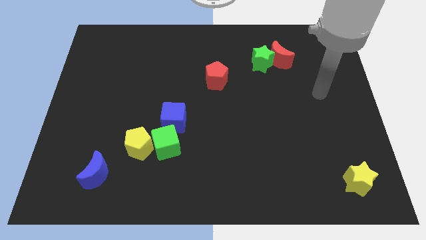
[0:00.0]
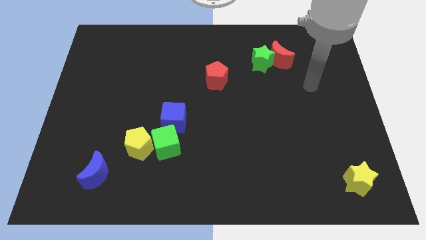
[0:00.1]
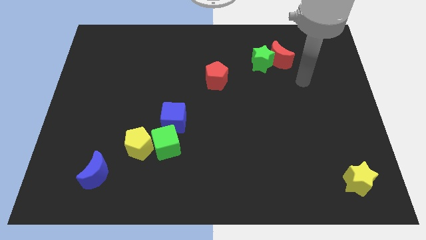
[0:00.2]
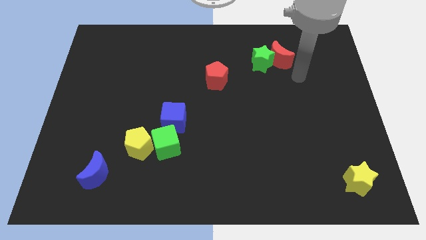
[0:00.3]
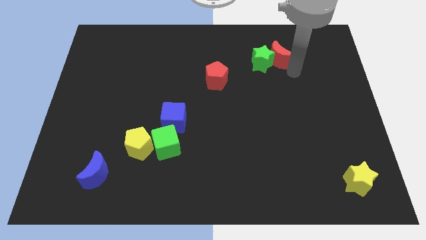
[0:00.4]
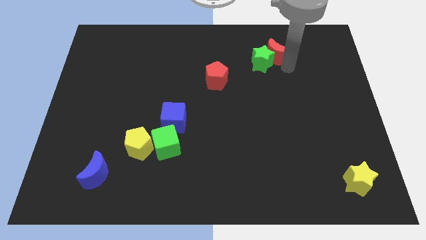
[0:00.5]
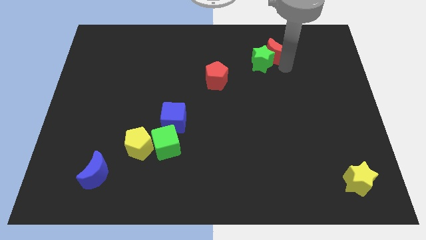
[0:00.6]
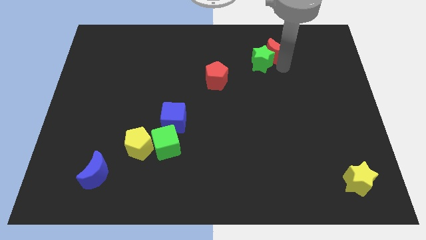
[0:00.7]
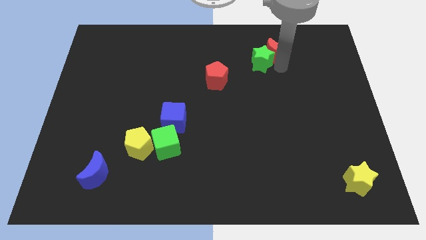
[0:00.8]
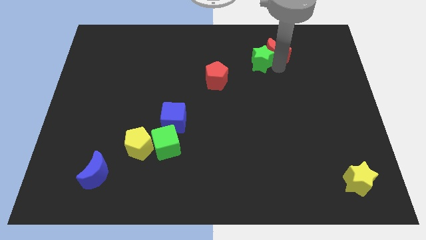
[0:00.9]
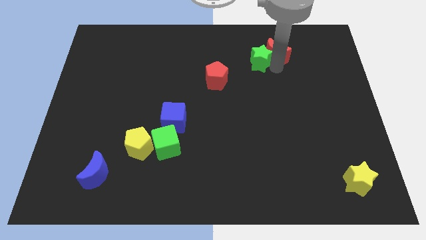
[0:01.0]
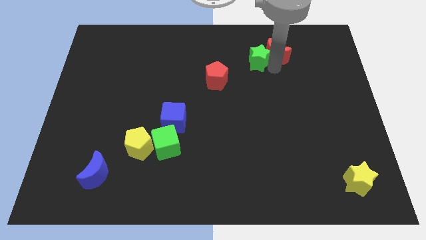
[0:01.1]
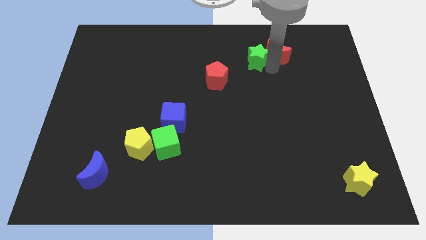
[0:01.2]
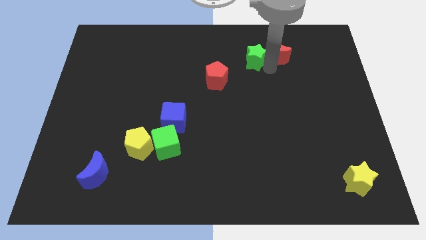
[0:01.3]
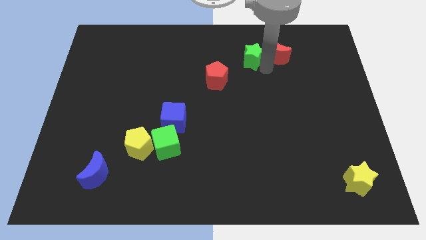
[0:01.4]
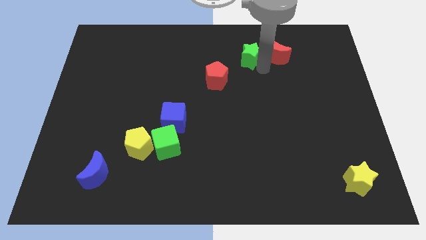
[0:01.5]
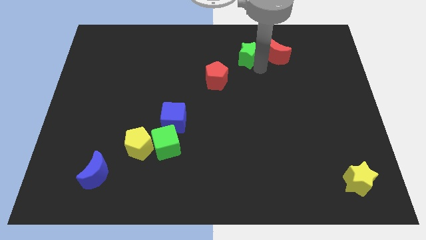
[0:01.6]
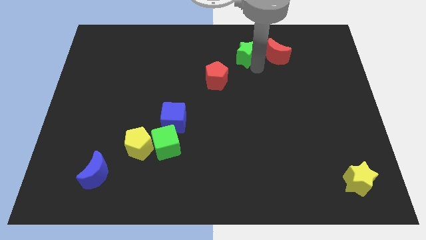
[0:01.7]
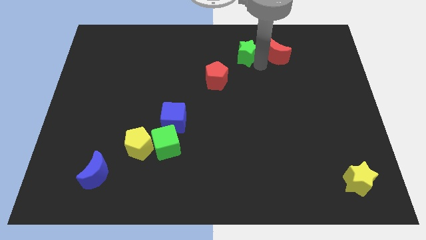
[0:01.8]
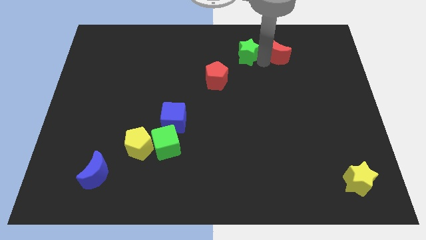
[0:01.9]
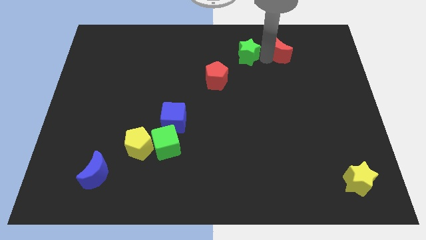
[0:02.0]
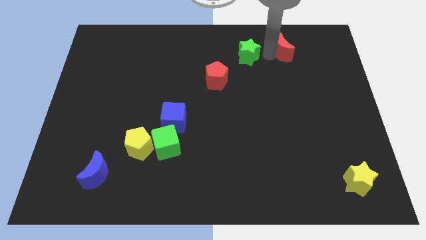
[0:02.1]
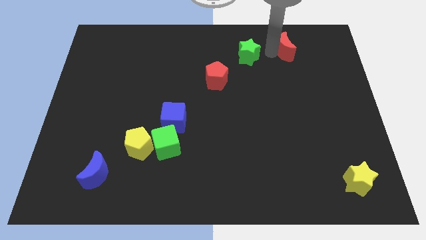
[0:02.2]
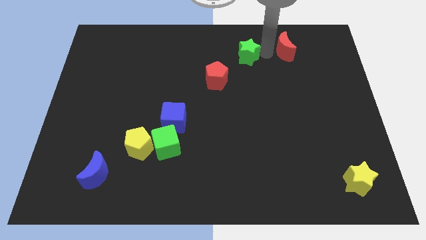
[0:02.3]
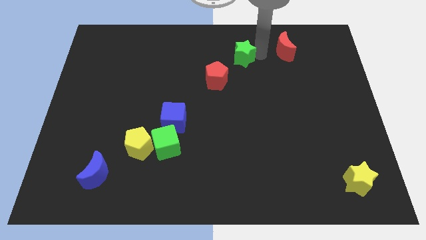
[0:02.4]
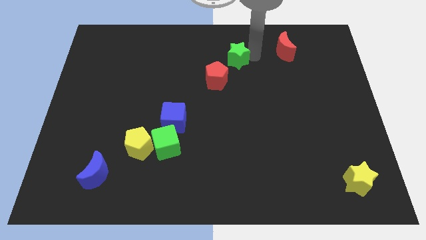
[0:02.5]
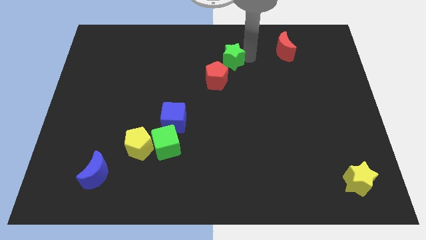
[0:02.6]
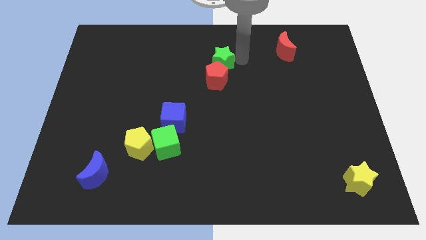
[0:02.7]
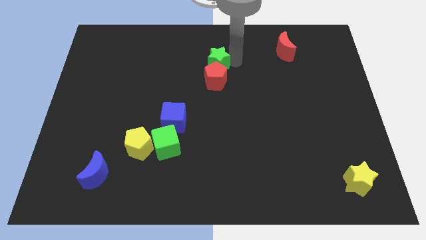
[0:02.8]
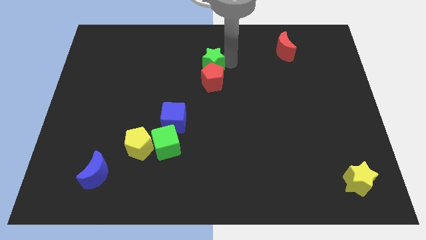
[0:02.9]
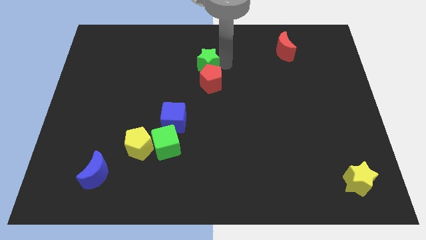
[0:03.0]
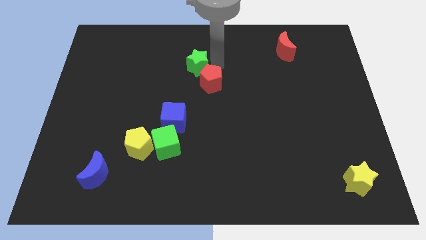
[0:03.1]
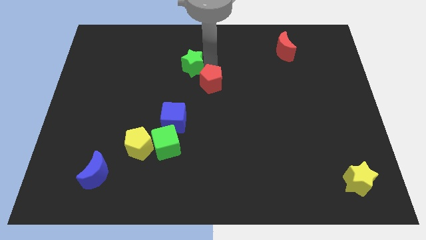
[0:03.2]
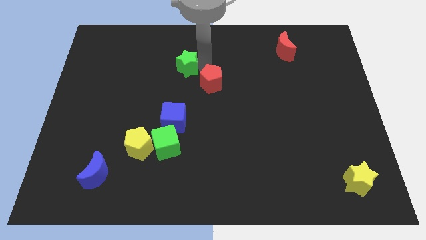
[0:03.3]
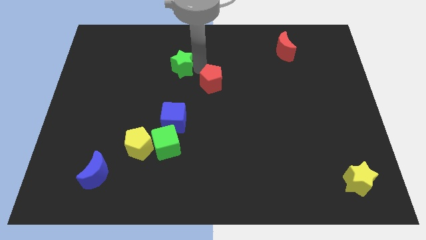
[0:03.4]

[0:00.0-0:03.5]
slide the green star to the left

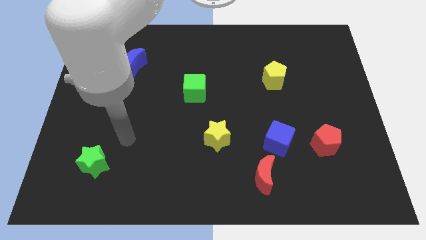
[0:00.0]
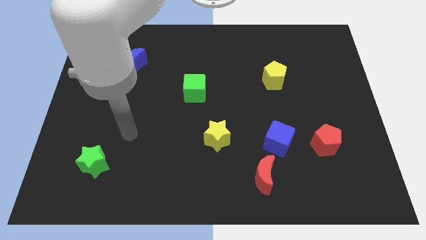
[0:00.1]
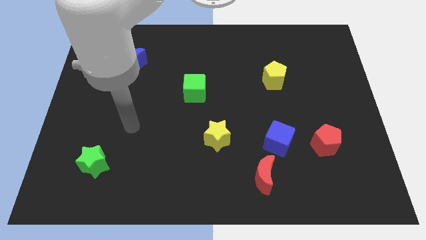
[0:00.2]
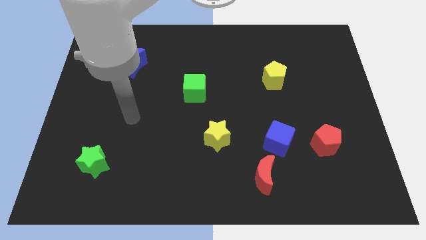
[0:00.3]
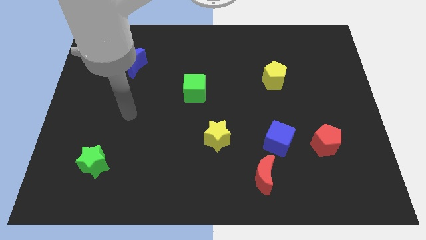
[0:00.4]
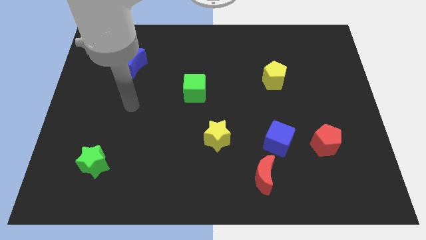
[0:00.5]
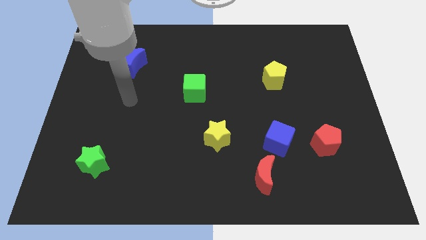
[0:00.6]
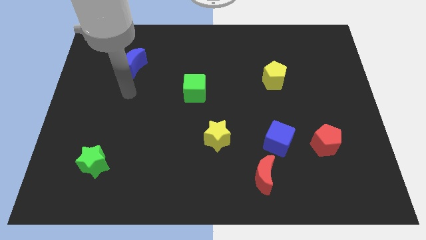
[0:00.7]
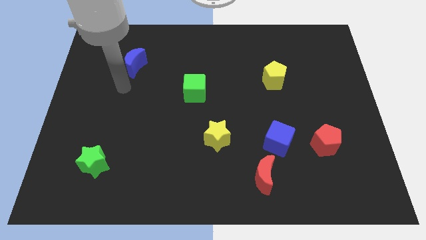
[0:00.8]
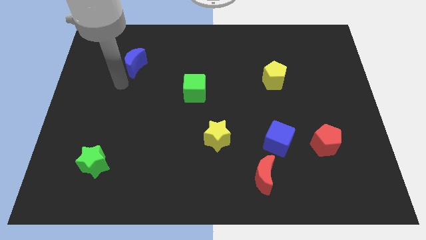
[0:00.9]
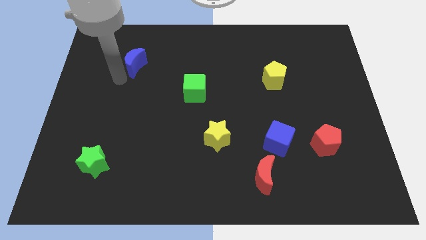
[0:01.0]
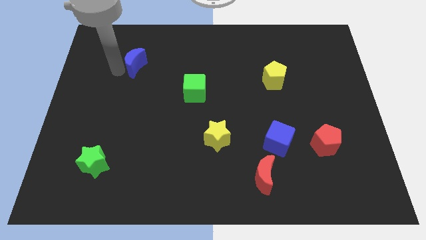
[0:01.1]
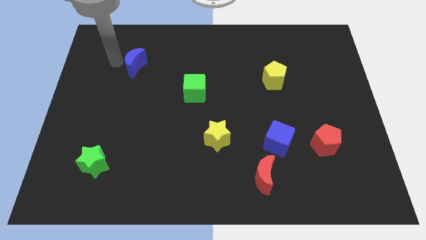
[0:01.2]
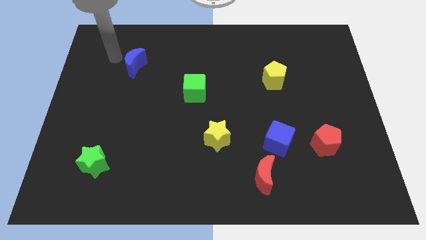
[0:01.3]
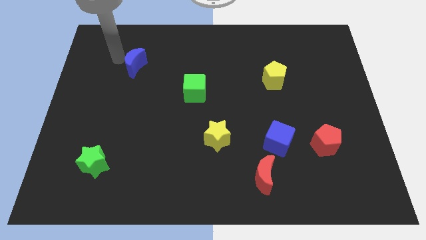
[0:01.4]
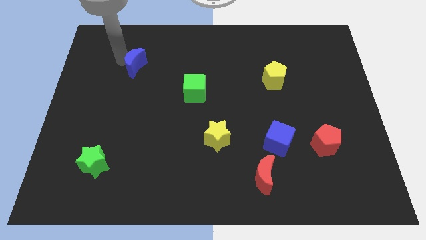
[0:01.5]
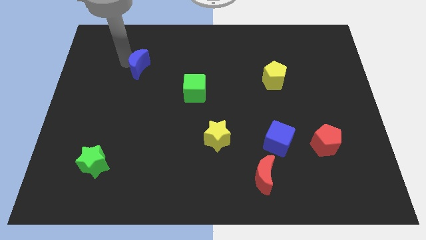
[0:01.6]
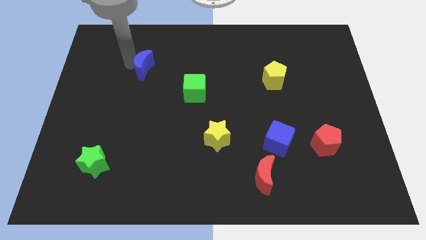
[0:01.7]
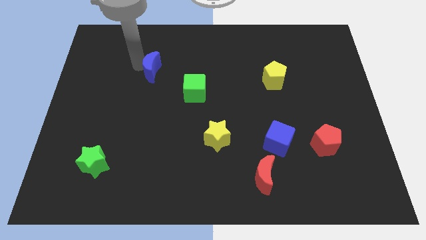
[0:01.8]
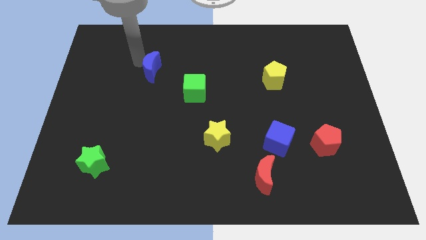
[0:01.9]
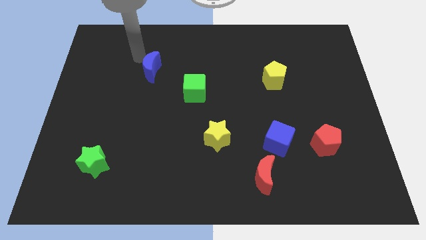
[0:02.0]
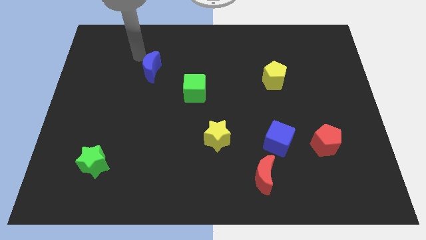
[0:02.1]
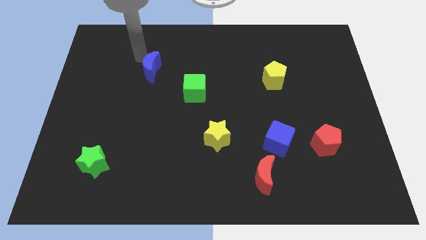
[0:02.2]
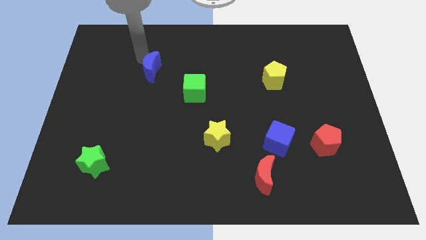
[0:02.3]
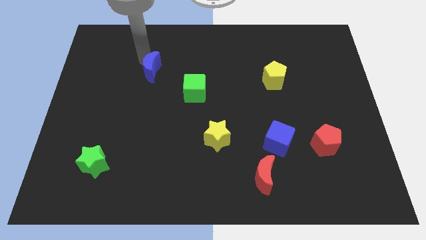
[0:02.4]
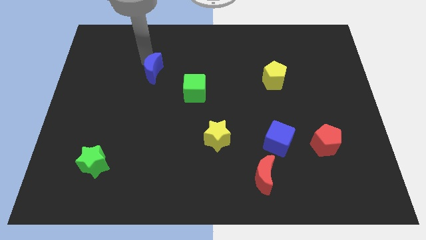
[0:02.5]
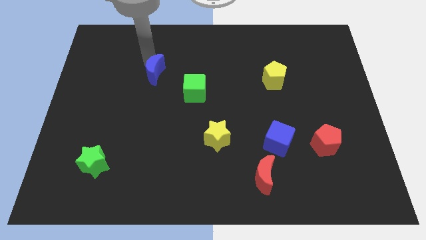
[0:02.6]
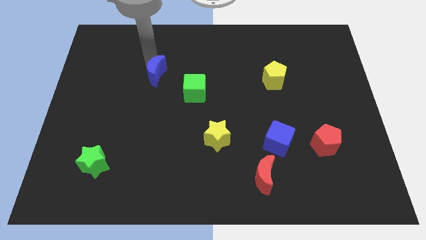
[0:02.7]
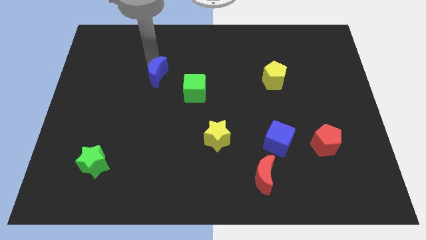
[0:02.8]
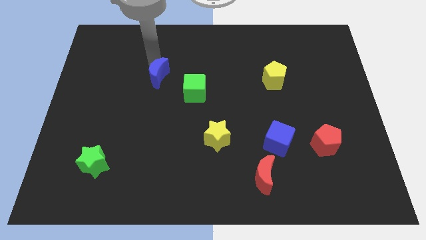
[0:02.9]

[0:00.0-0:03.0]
move the blue moon a little down and then to the right

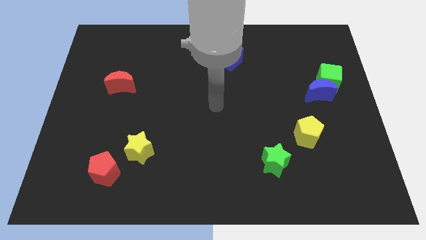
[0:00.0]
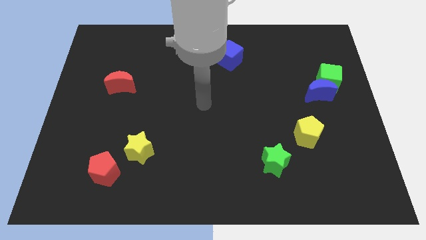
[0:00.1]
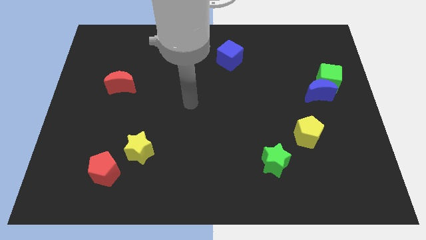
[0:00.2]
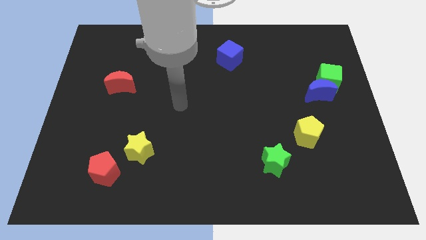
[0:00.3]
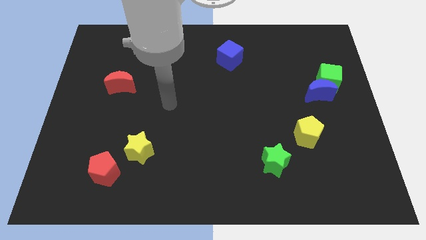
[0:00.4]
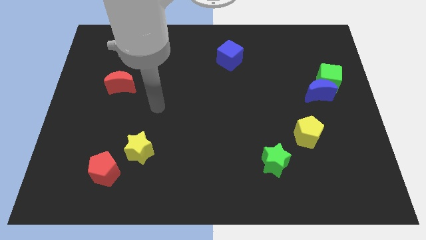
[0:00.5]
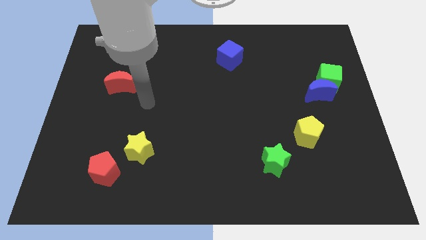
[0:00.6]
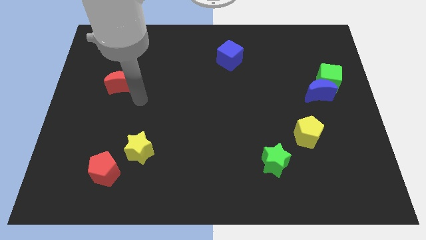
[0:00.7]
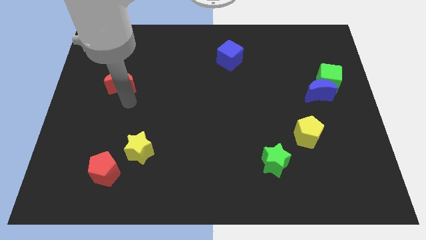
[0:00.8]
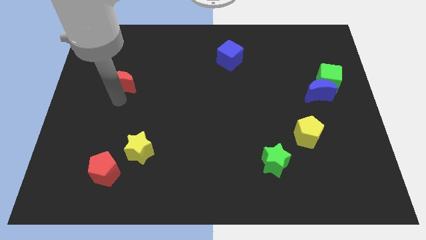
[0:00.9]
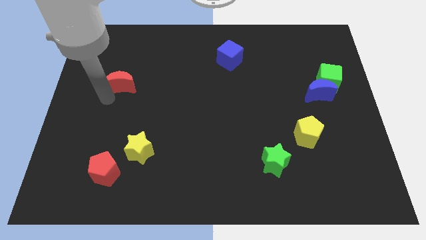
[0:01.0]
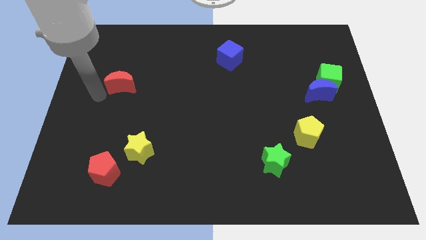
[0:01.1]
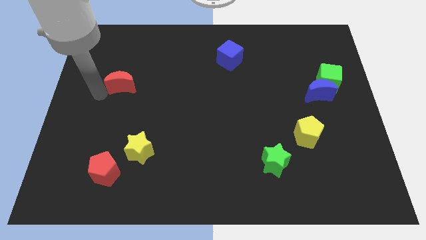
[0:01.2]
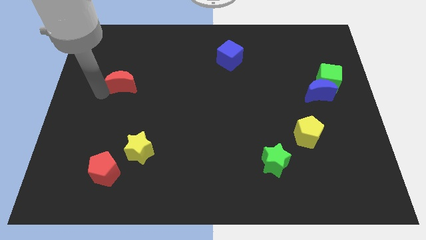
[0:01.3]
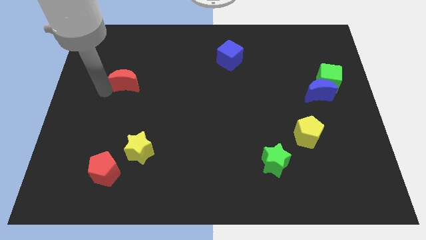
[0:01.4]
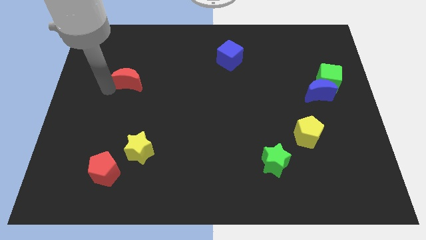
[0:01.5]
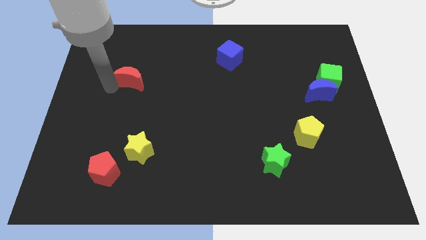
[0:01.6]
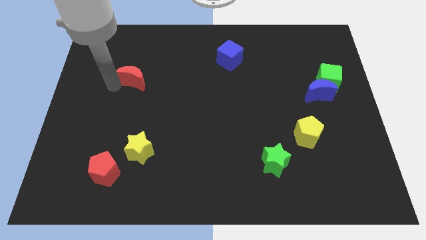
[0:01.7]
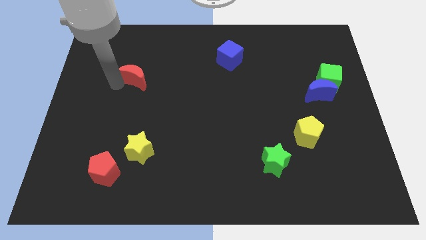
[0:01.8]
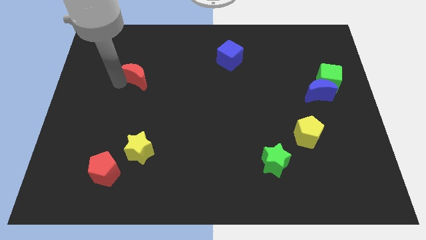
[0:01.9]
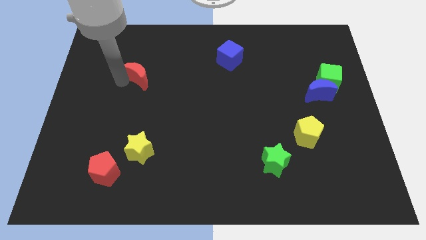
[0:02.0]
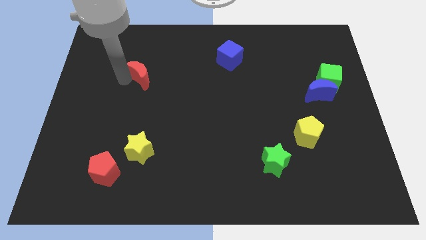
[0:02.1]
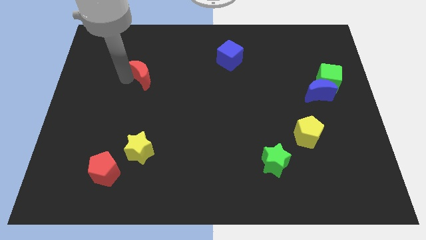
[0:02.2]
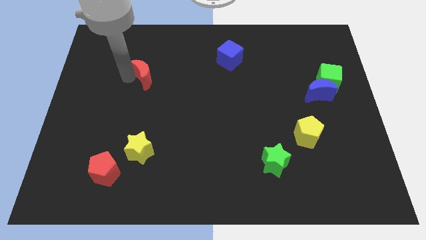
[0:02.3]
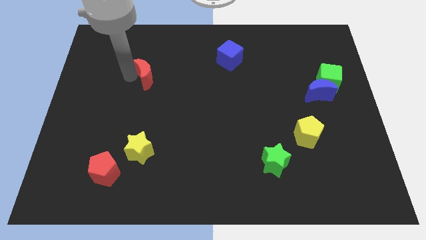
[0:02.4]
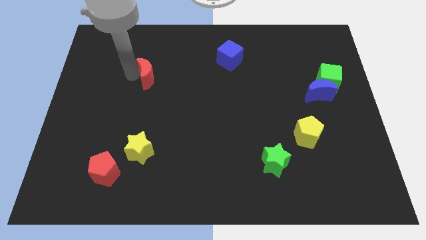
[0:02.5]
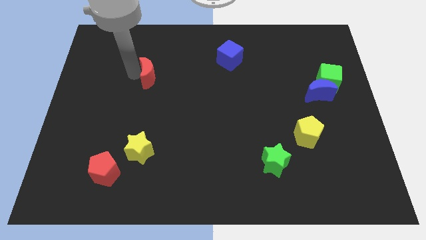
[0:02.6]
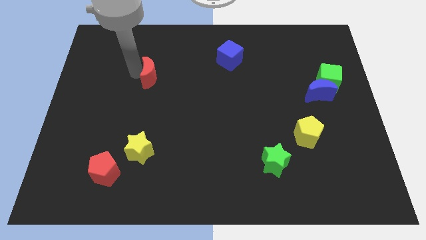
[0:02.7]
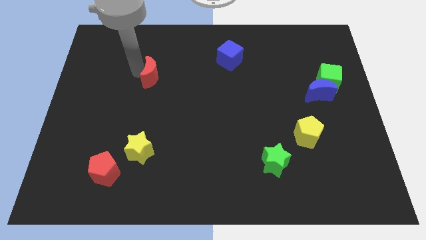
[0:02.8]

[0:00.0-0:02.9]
push the red moon a bit right
